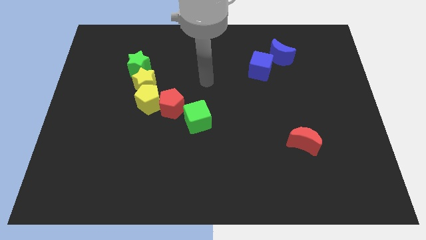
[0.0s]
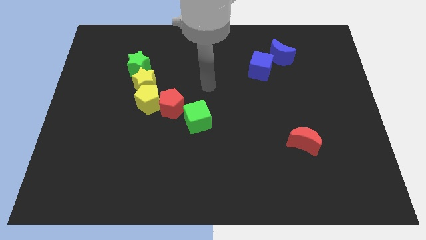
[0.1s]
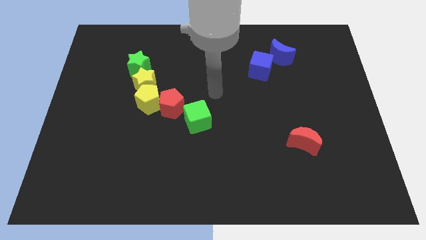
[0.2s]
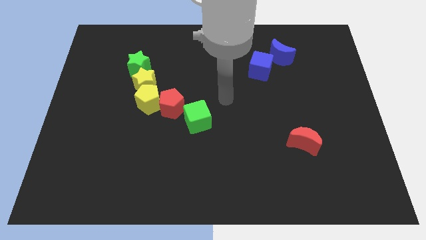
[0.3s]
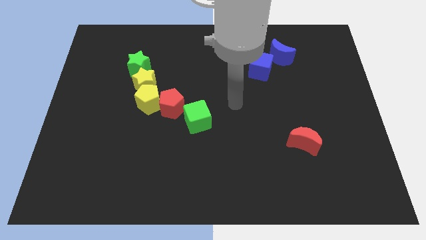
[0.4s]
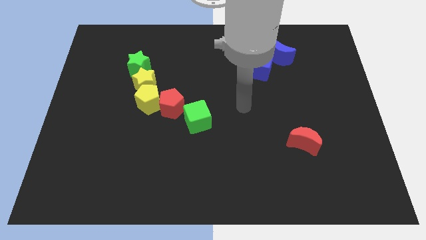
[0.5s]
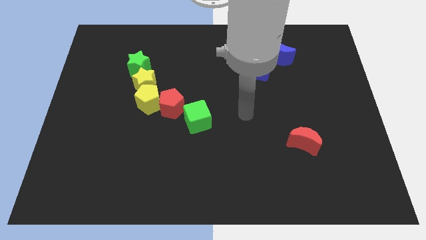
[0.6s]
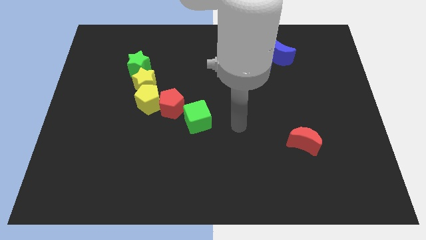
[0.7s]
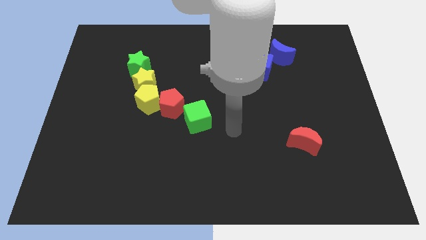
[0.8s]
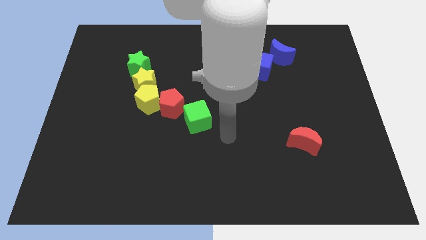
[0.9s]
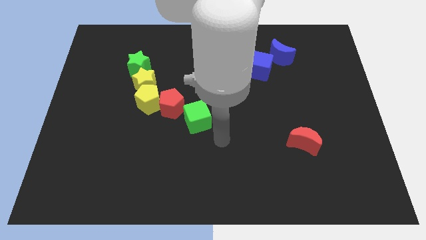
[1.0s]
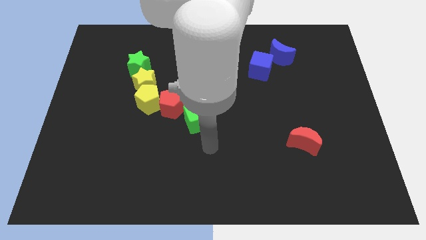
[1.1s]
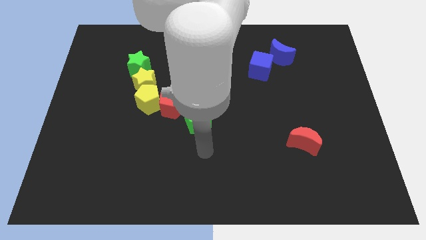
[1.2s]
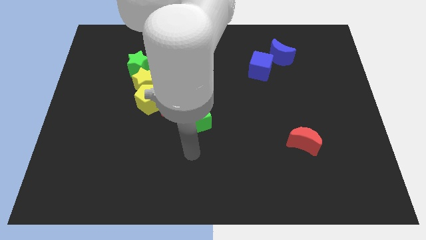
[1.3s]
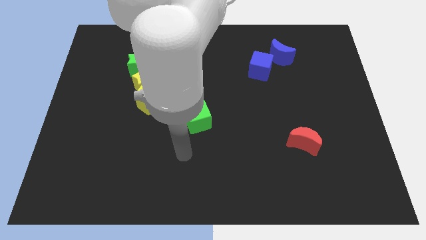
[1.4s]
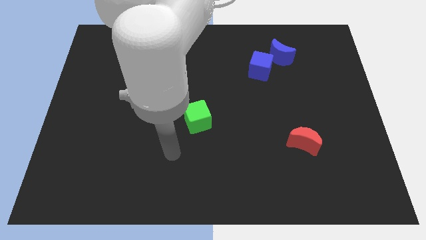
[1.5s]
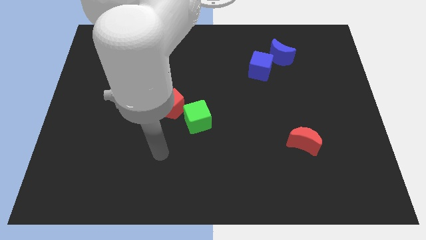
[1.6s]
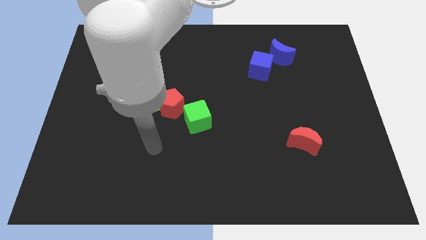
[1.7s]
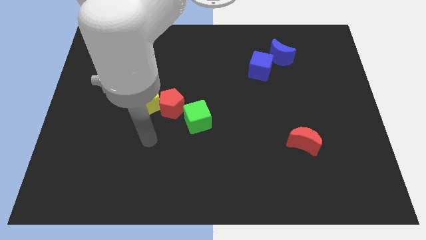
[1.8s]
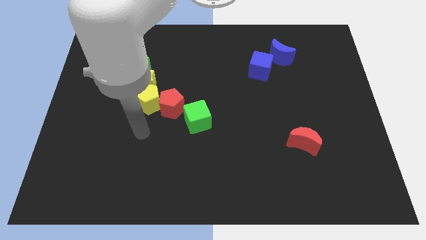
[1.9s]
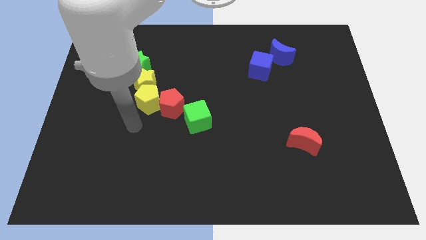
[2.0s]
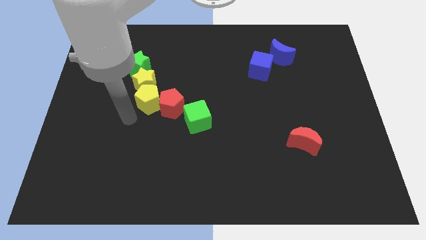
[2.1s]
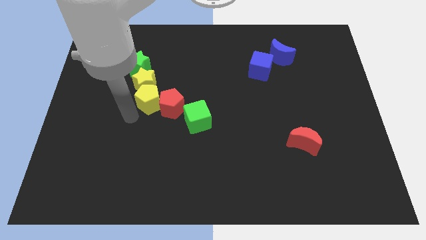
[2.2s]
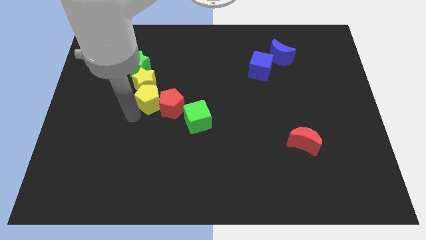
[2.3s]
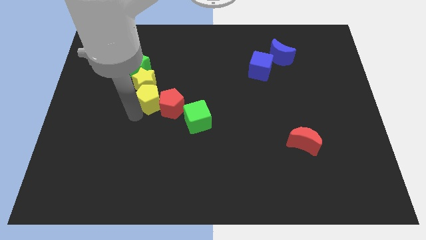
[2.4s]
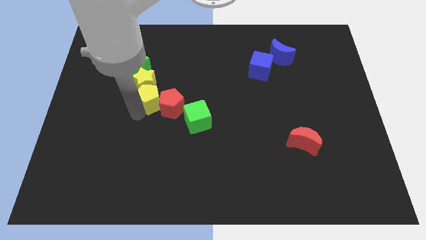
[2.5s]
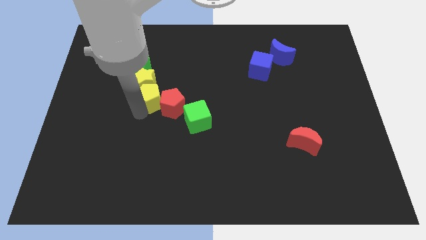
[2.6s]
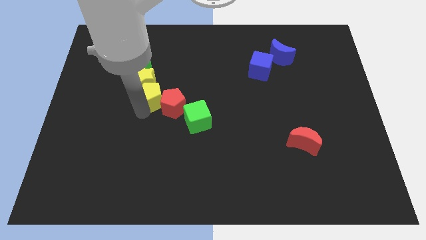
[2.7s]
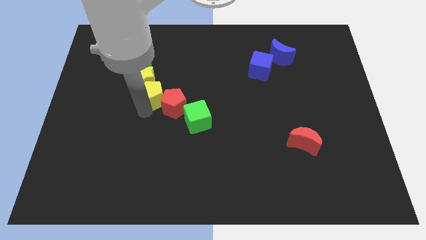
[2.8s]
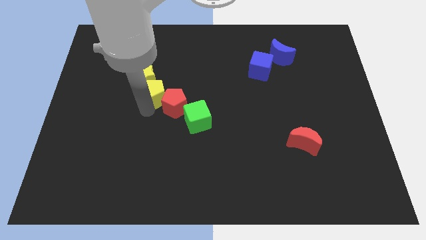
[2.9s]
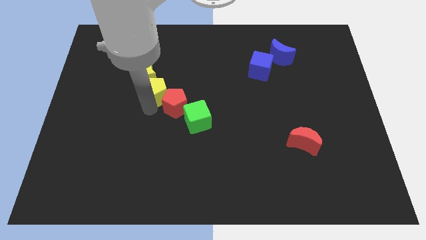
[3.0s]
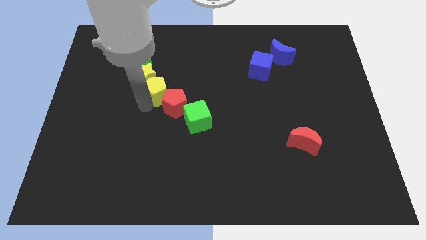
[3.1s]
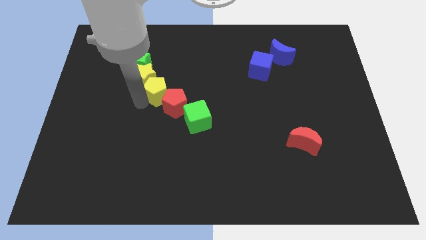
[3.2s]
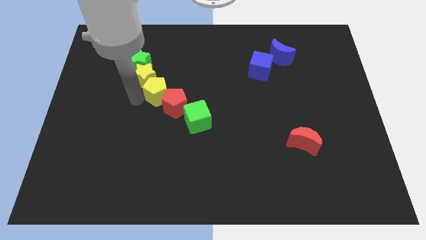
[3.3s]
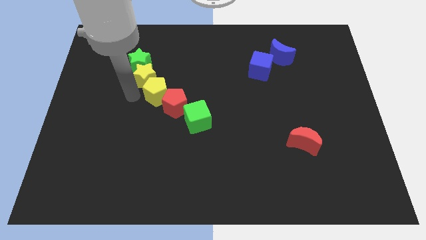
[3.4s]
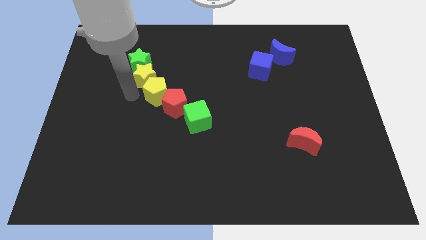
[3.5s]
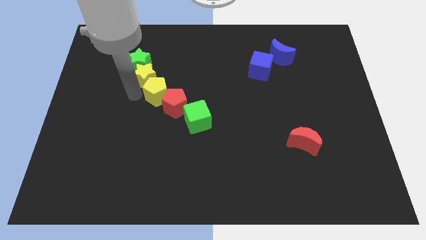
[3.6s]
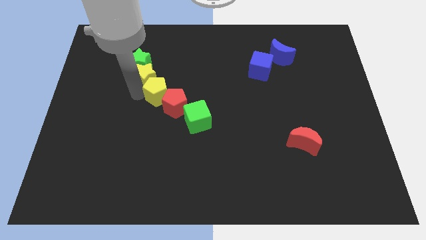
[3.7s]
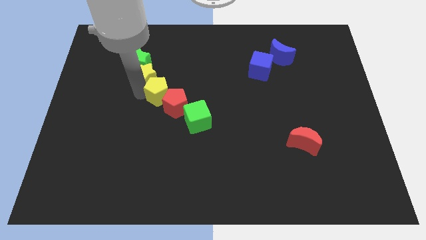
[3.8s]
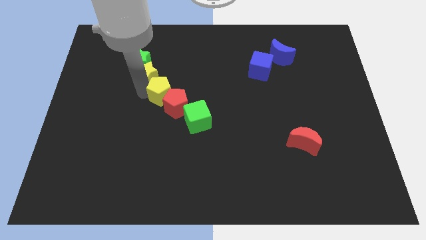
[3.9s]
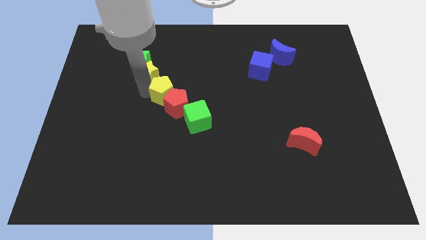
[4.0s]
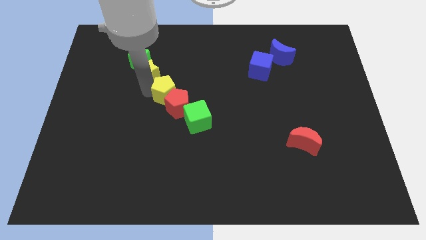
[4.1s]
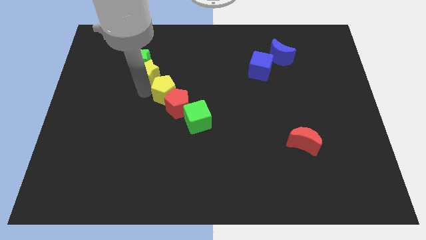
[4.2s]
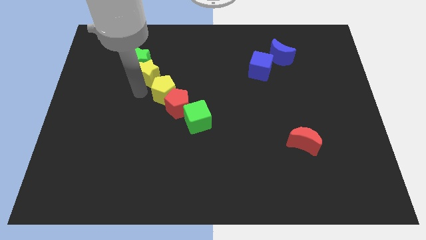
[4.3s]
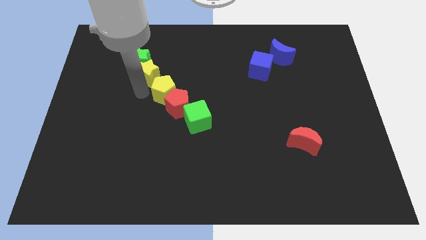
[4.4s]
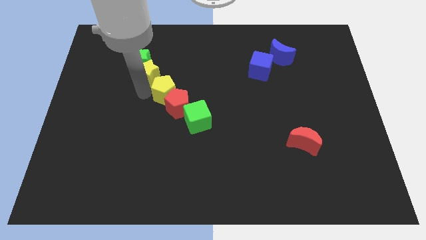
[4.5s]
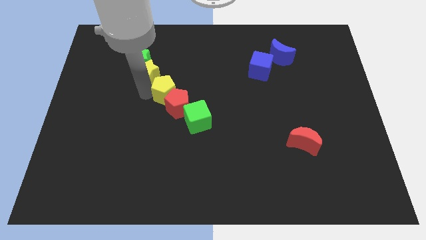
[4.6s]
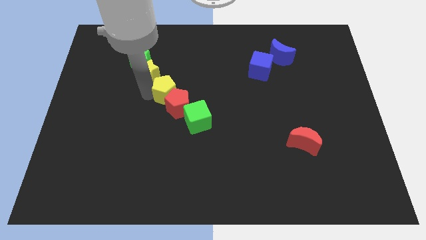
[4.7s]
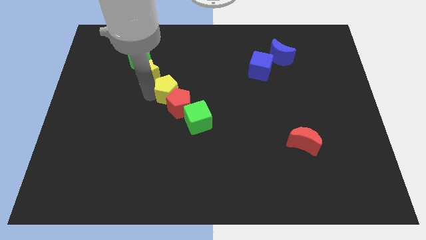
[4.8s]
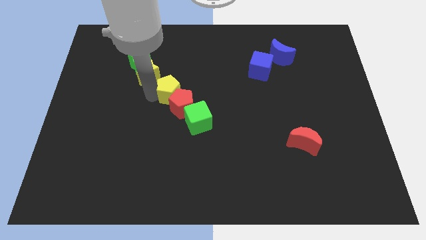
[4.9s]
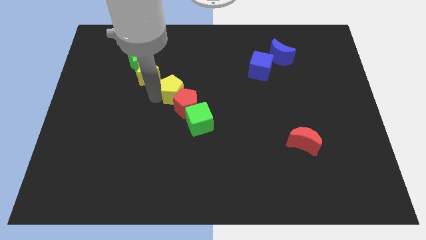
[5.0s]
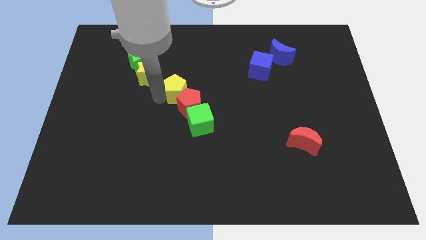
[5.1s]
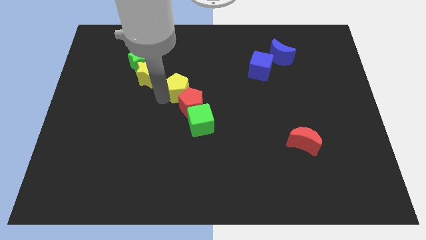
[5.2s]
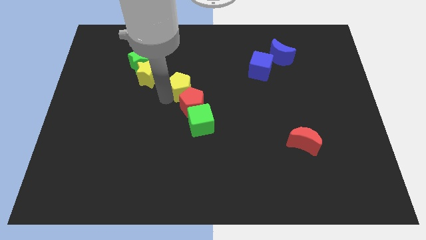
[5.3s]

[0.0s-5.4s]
push the yellow pentagon right a little bit

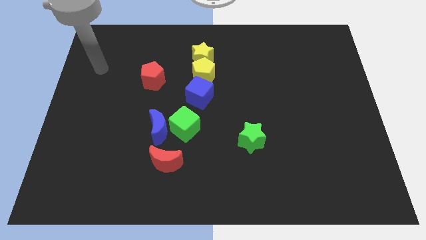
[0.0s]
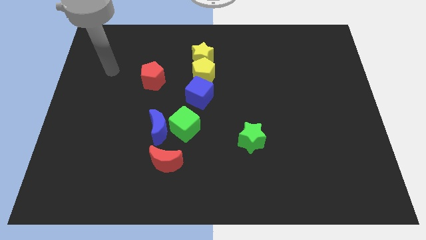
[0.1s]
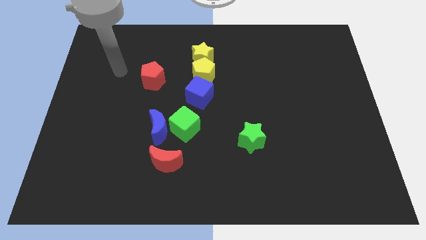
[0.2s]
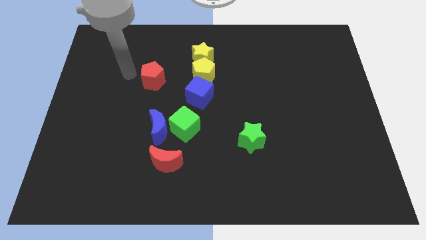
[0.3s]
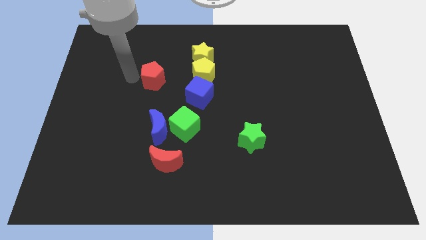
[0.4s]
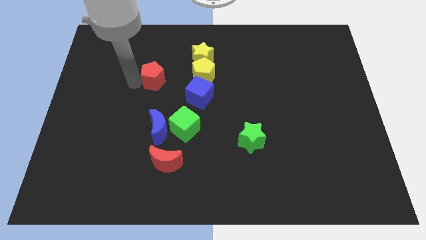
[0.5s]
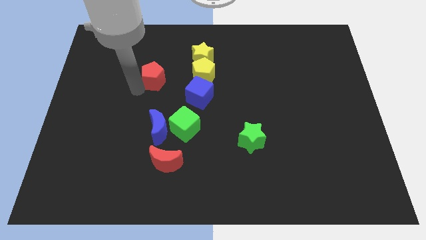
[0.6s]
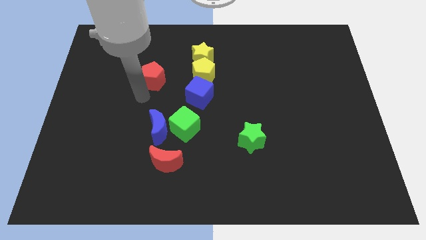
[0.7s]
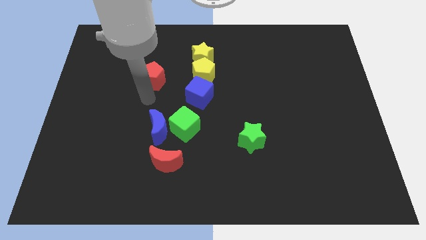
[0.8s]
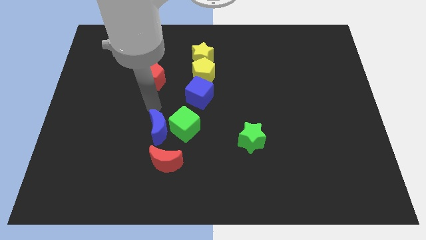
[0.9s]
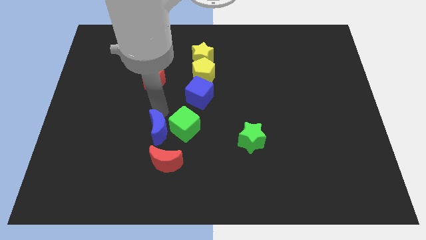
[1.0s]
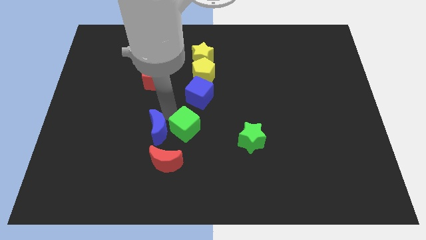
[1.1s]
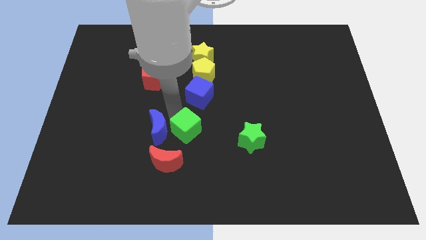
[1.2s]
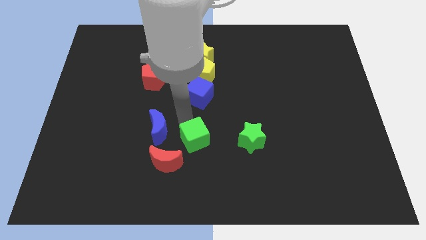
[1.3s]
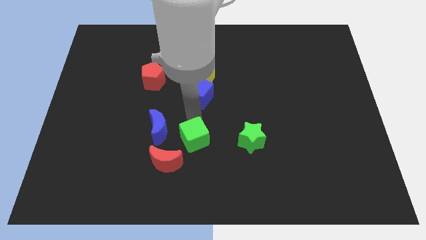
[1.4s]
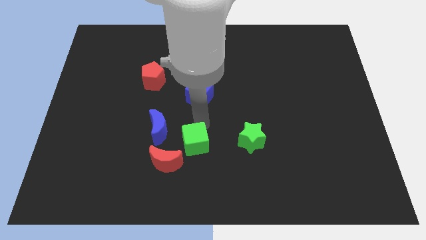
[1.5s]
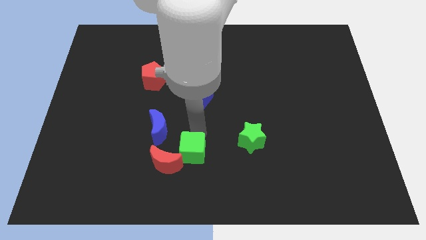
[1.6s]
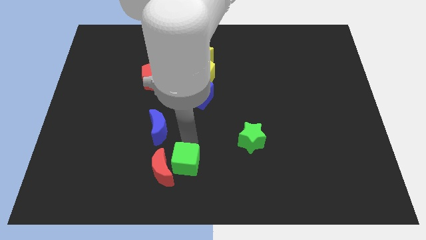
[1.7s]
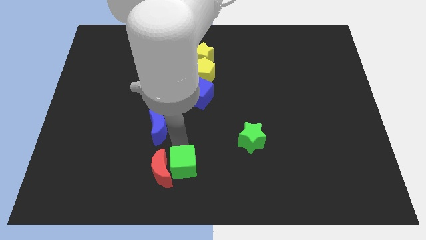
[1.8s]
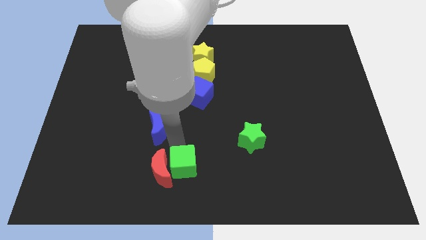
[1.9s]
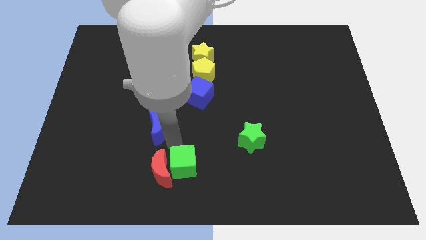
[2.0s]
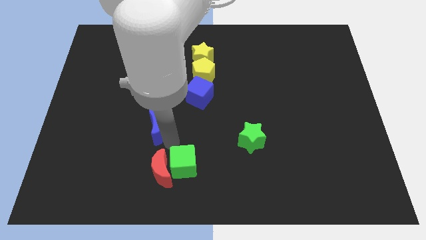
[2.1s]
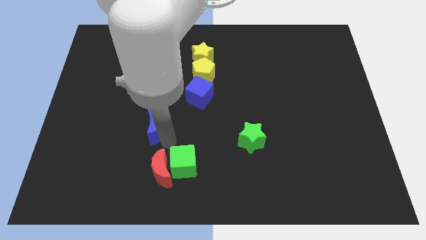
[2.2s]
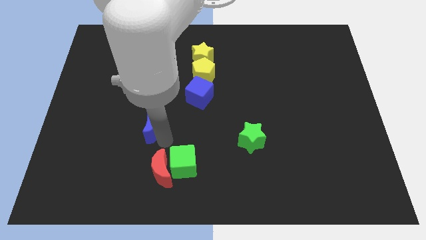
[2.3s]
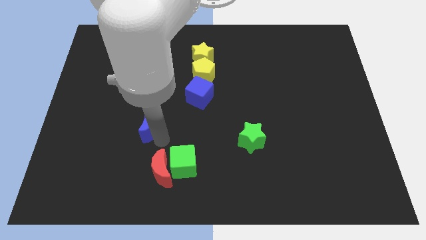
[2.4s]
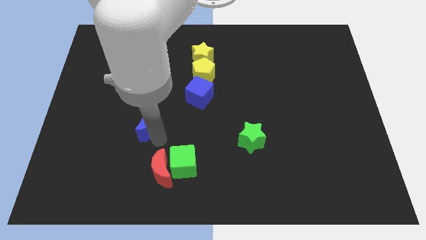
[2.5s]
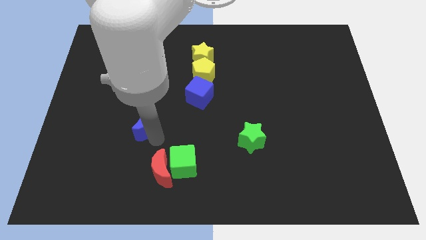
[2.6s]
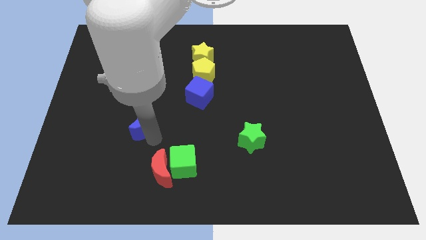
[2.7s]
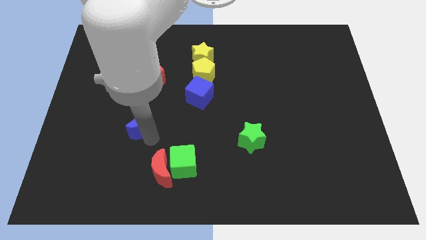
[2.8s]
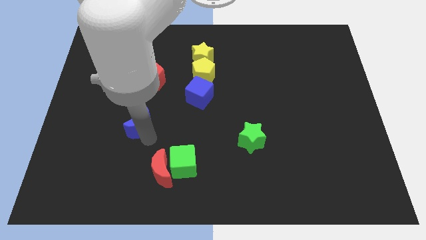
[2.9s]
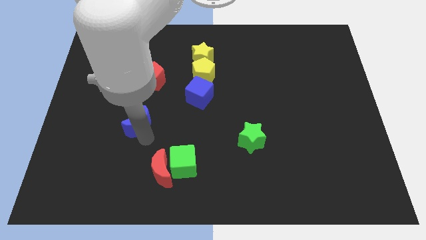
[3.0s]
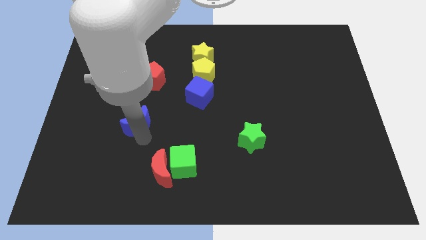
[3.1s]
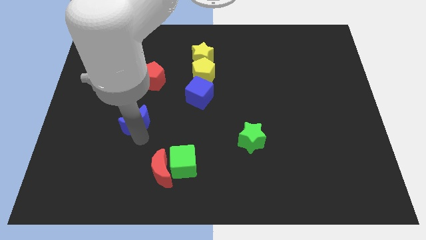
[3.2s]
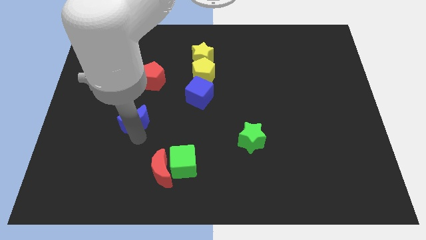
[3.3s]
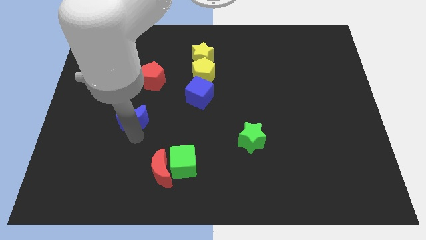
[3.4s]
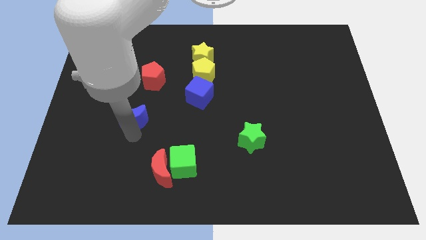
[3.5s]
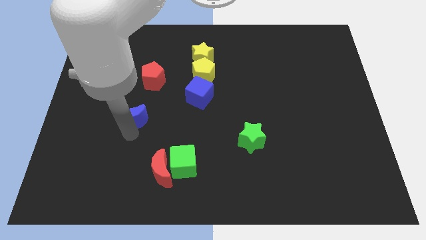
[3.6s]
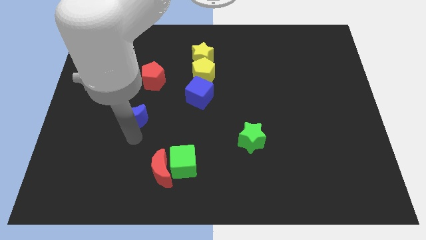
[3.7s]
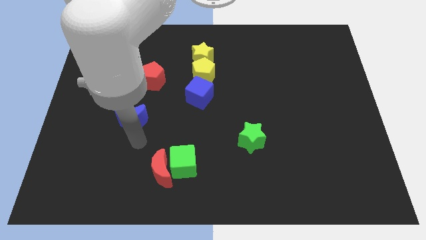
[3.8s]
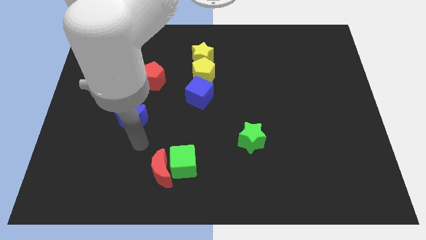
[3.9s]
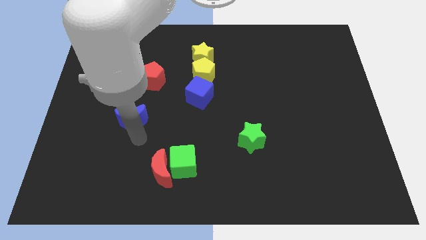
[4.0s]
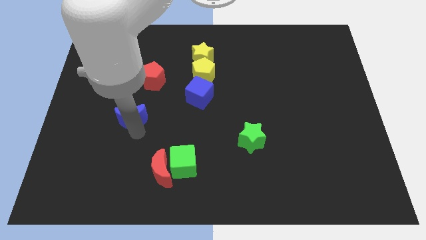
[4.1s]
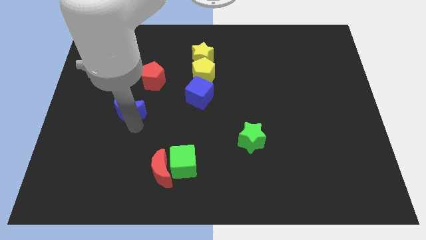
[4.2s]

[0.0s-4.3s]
slide the blue moon a little up and to the left diagonally
